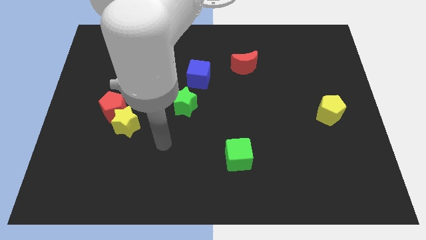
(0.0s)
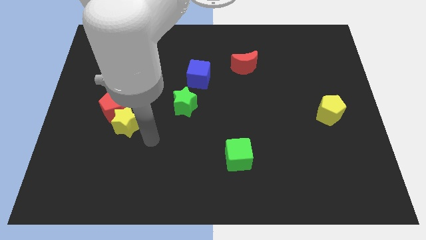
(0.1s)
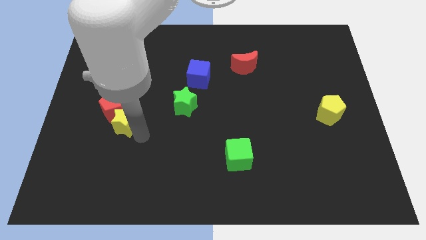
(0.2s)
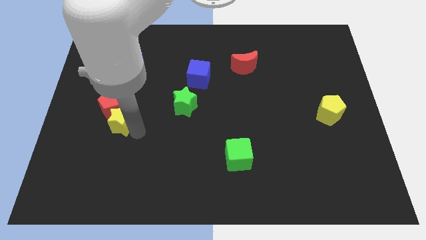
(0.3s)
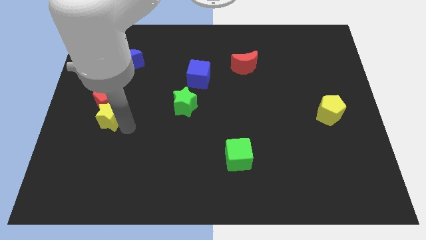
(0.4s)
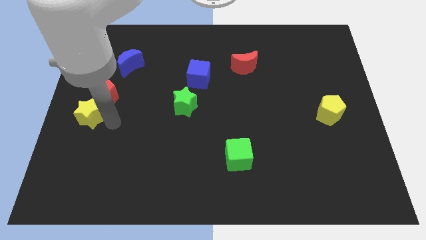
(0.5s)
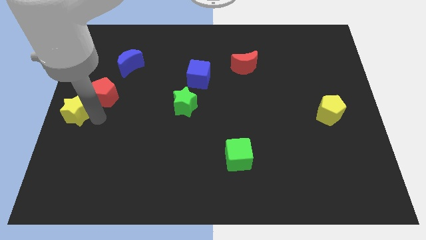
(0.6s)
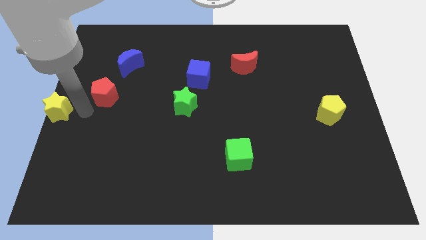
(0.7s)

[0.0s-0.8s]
move the red pentagon away from the yellow star

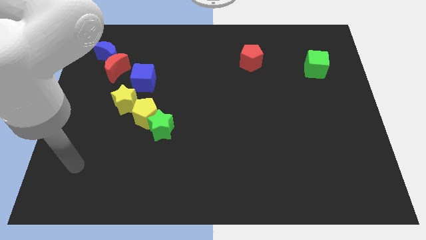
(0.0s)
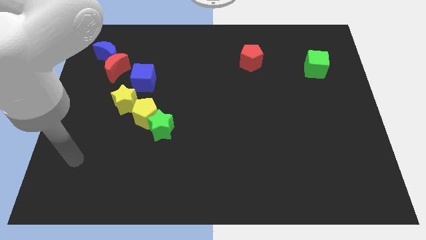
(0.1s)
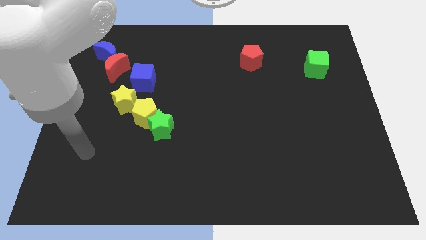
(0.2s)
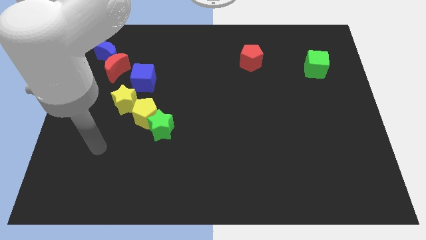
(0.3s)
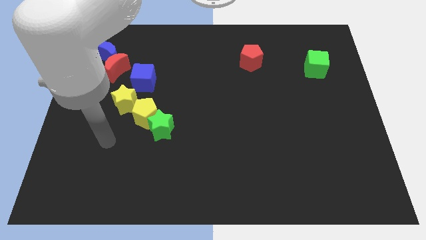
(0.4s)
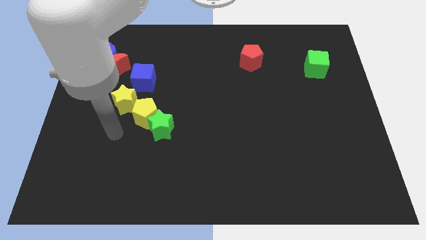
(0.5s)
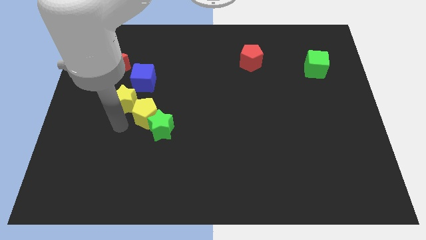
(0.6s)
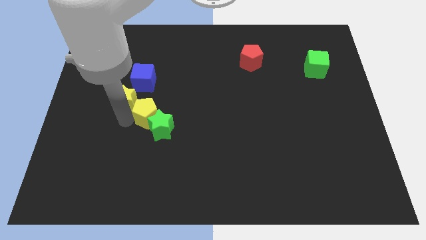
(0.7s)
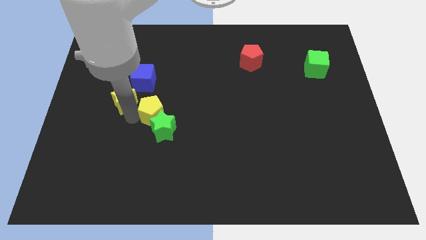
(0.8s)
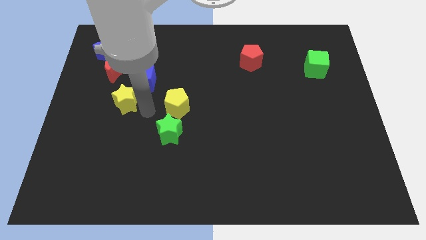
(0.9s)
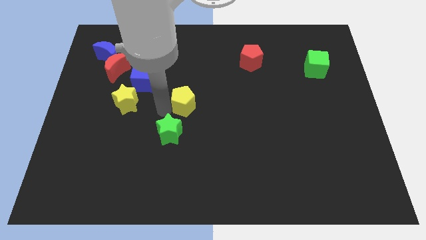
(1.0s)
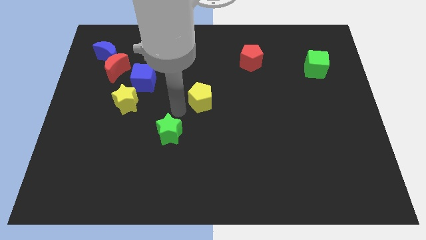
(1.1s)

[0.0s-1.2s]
separate the green star from the yellow pentagon

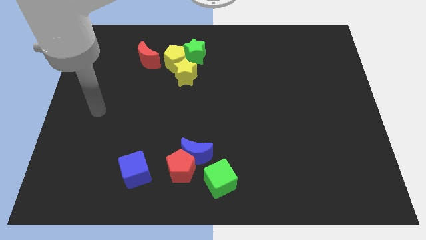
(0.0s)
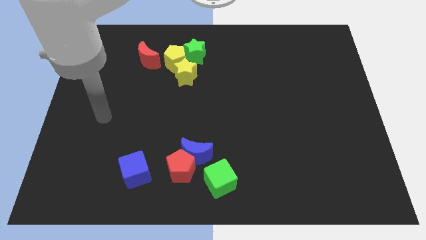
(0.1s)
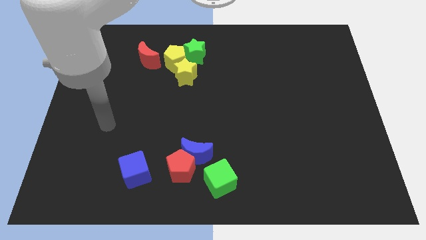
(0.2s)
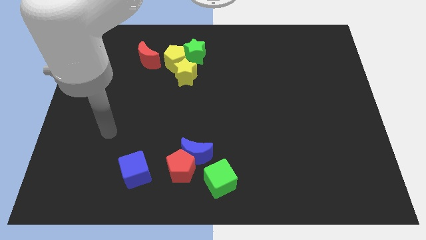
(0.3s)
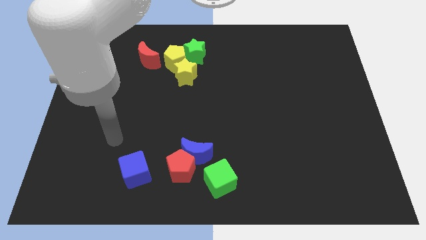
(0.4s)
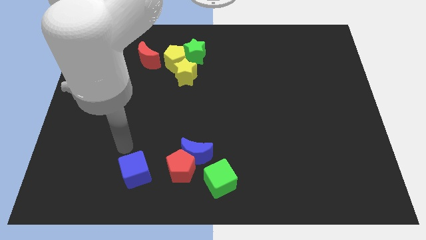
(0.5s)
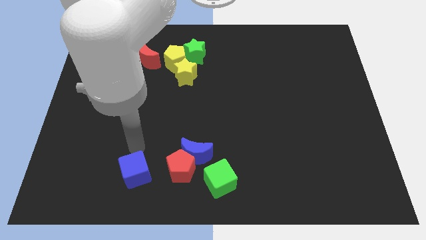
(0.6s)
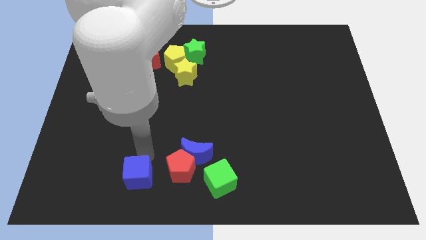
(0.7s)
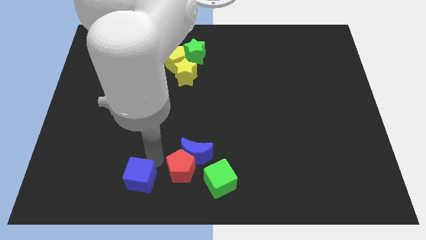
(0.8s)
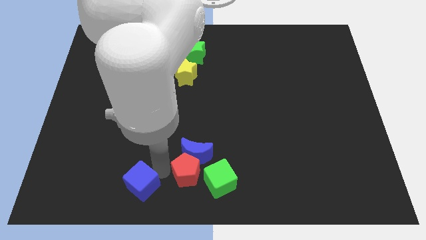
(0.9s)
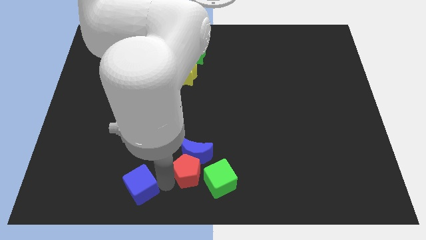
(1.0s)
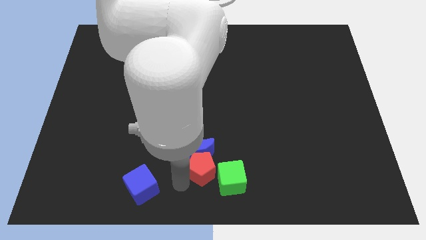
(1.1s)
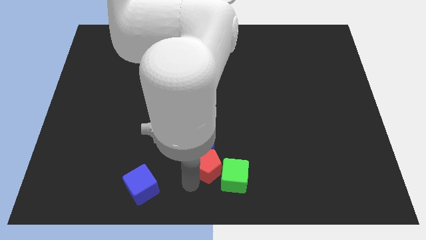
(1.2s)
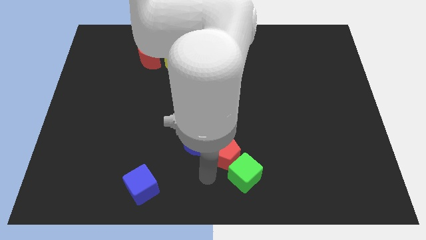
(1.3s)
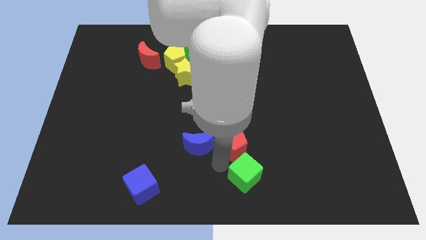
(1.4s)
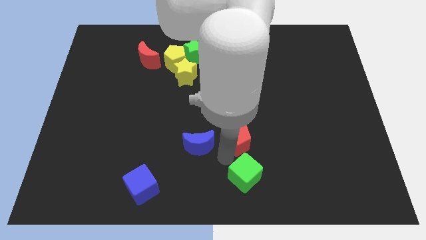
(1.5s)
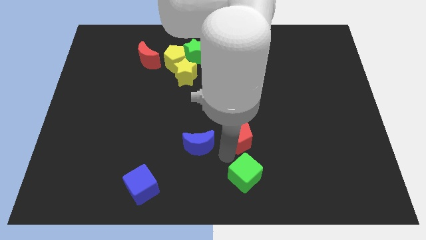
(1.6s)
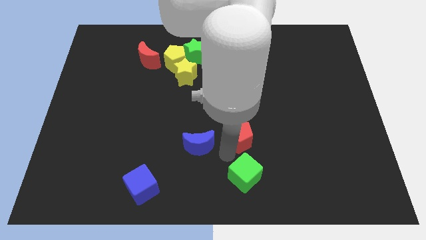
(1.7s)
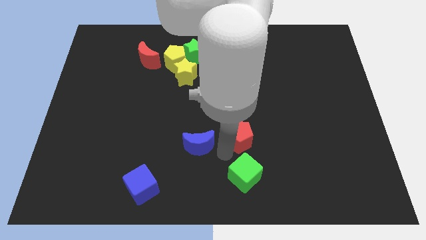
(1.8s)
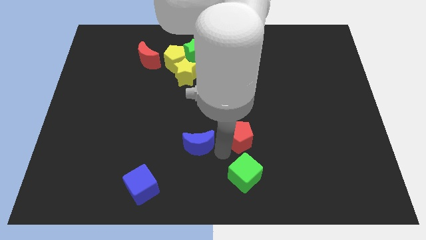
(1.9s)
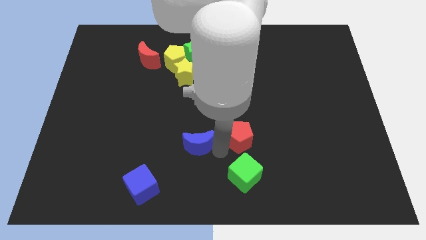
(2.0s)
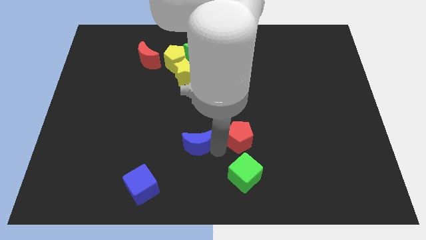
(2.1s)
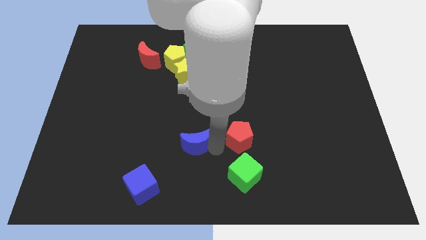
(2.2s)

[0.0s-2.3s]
separate the blue moon from the red pentagon and green cube

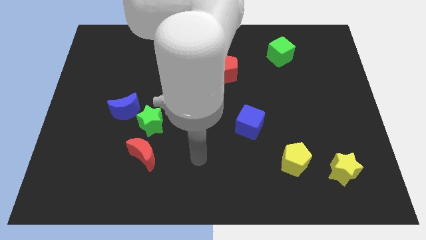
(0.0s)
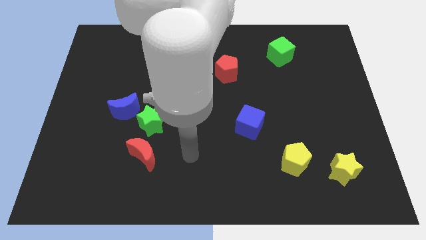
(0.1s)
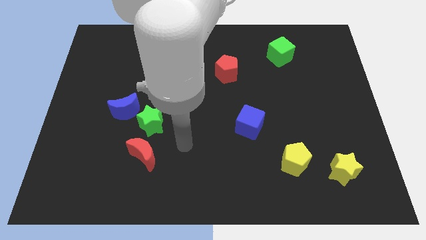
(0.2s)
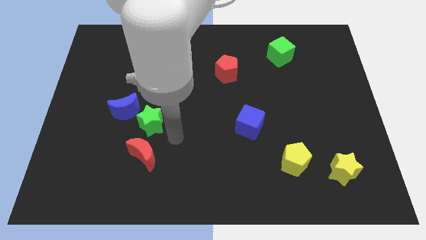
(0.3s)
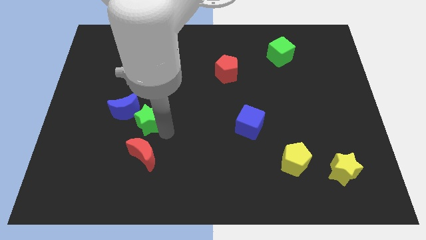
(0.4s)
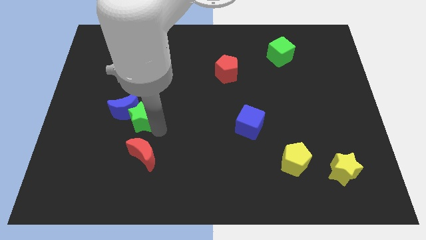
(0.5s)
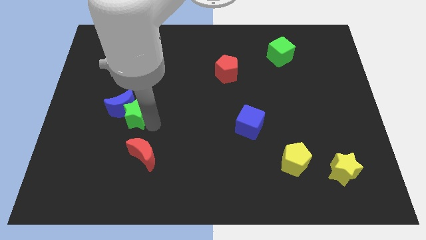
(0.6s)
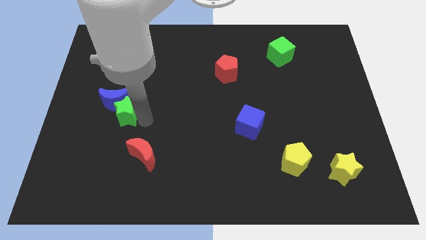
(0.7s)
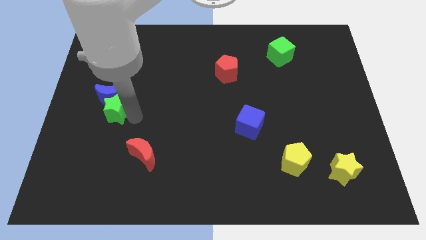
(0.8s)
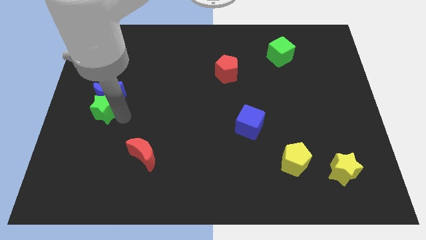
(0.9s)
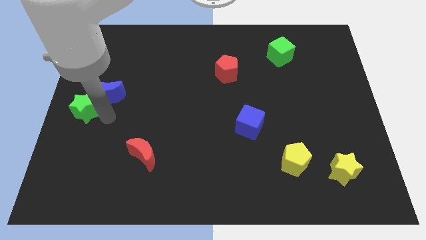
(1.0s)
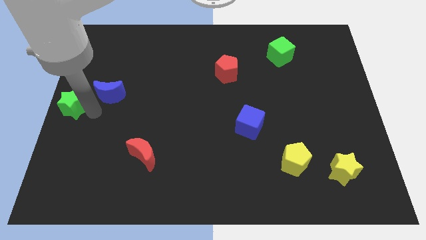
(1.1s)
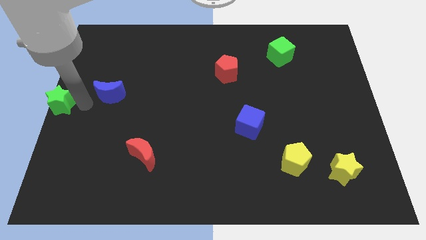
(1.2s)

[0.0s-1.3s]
move the blue moon away from the green star

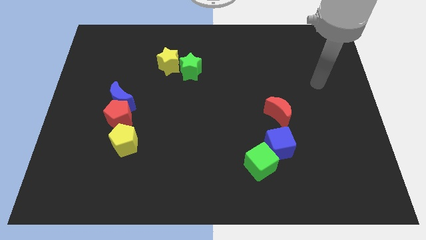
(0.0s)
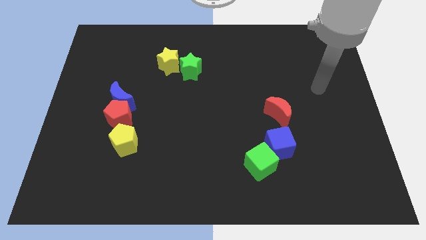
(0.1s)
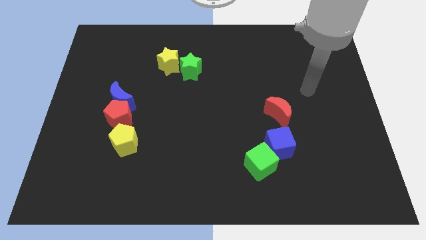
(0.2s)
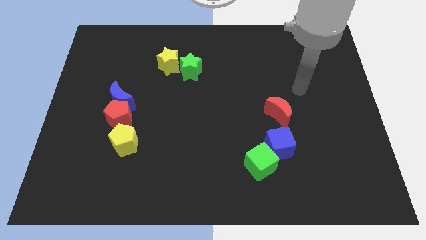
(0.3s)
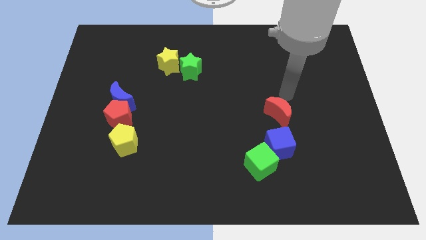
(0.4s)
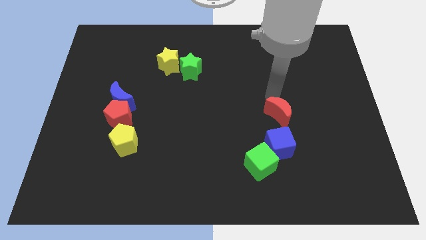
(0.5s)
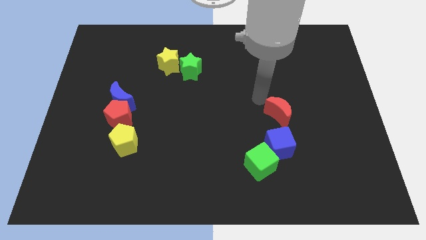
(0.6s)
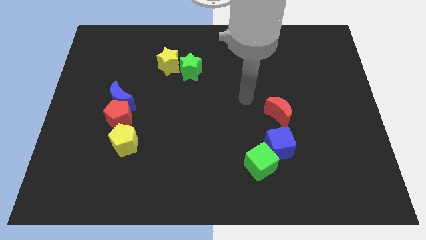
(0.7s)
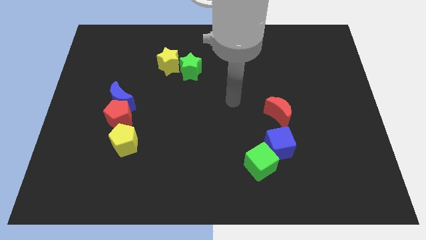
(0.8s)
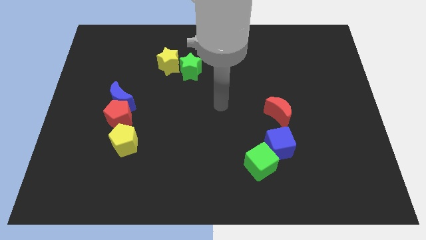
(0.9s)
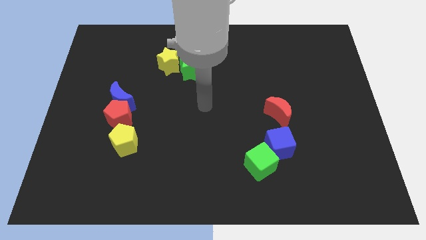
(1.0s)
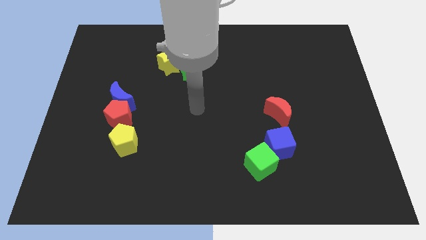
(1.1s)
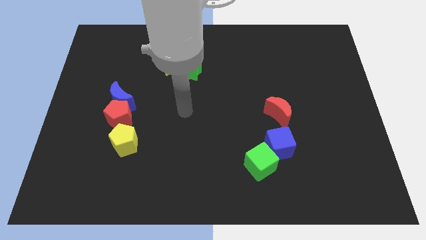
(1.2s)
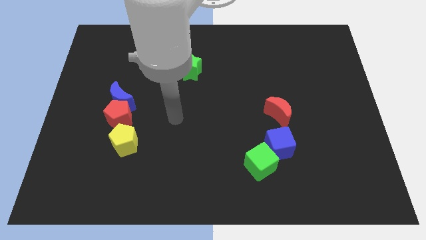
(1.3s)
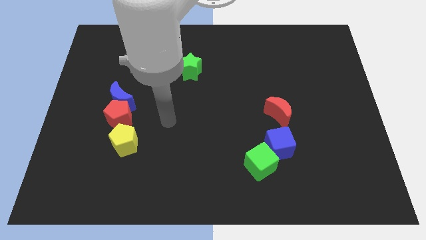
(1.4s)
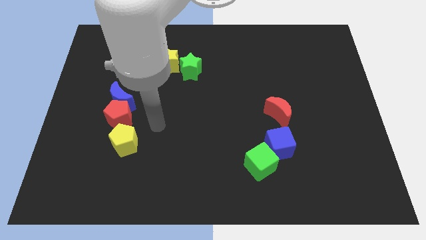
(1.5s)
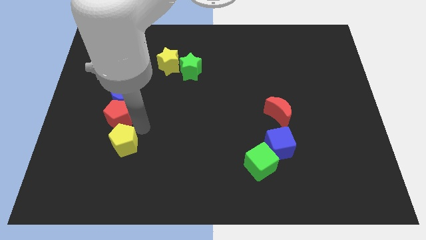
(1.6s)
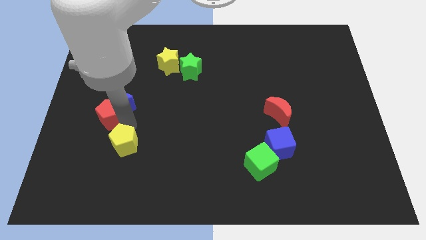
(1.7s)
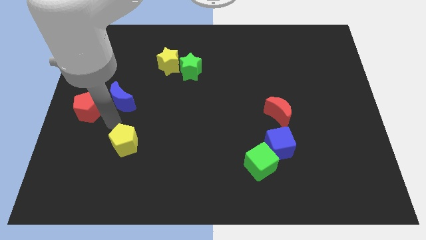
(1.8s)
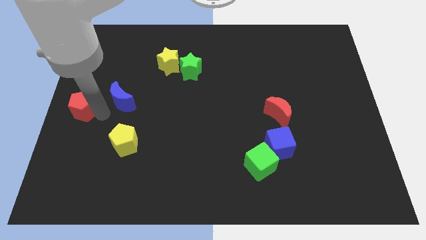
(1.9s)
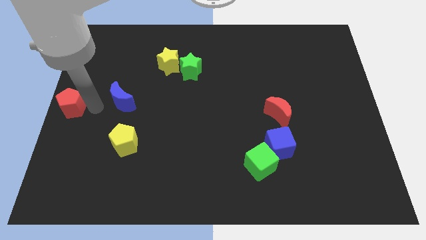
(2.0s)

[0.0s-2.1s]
move the blue moon away from the red pentagon

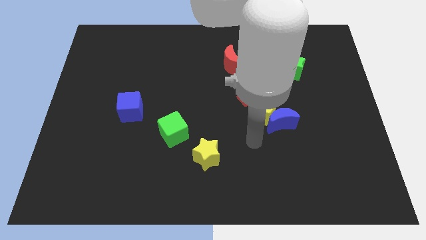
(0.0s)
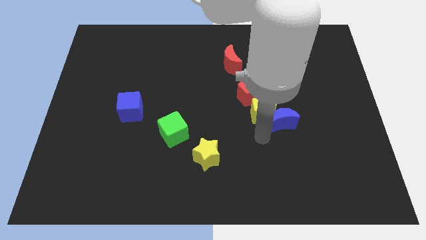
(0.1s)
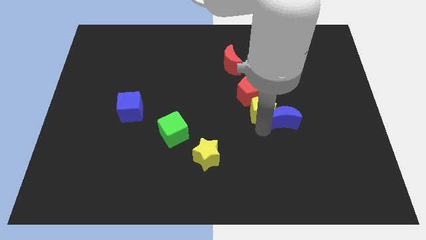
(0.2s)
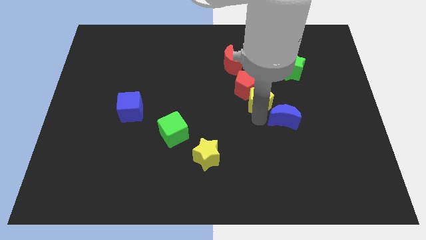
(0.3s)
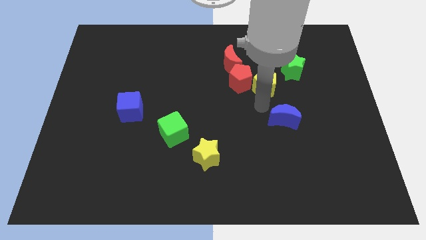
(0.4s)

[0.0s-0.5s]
move the blue moon away from the yellow pentagon

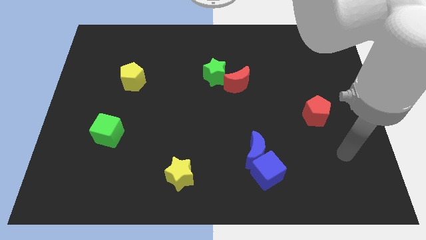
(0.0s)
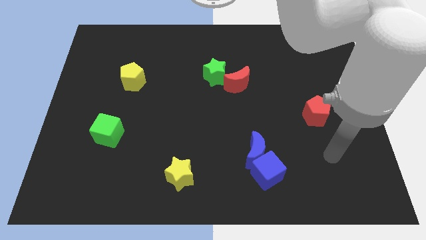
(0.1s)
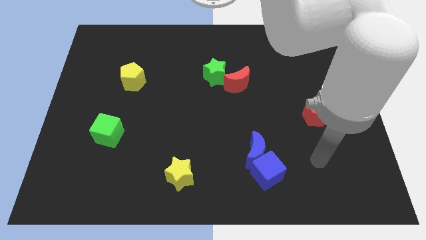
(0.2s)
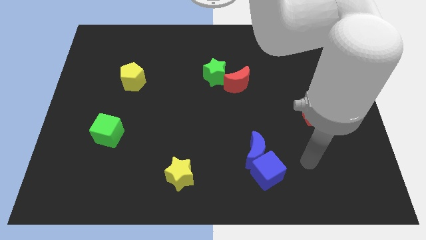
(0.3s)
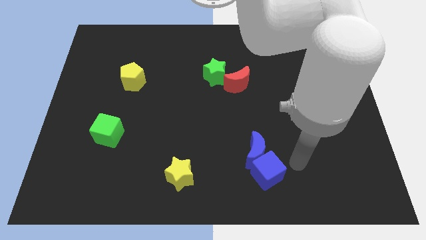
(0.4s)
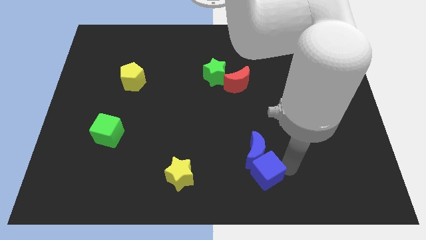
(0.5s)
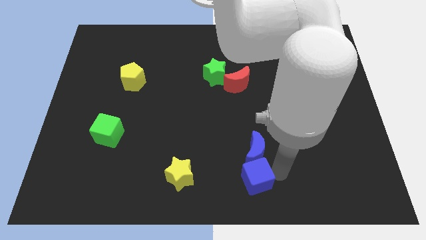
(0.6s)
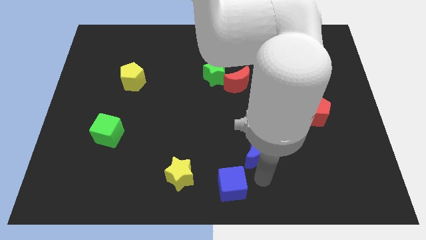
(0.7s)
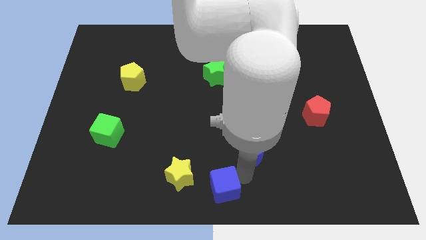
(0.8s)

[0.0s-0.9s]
move the blue moon away from the blue cube

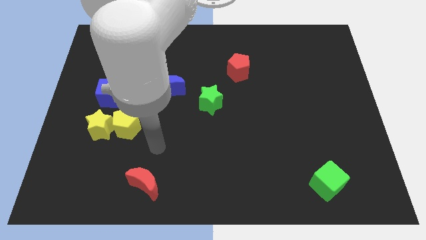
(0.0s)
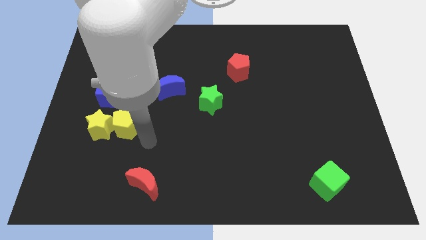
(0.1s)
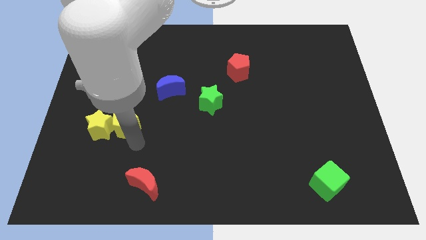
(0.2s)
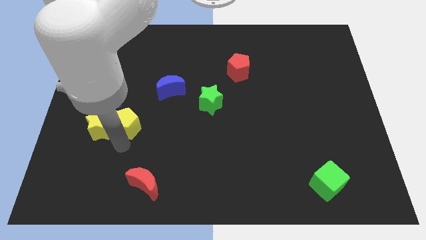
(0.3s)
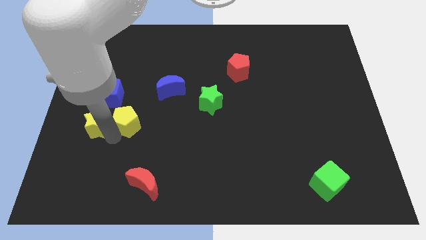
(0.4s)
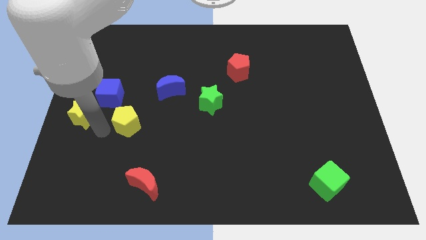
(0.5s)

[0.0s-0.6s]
pull the yellow pentagon apart from the yellow star
